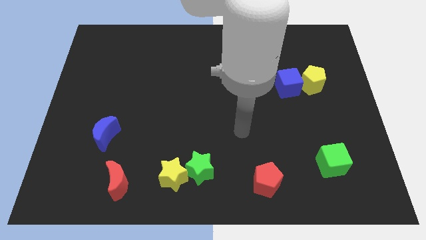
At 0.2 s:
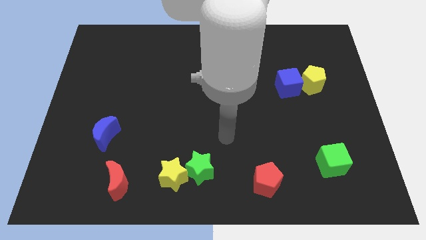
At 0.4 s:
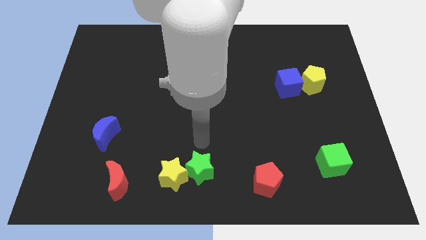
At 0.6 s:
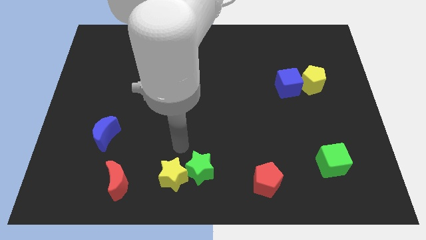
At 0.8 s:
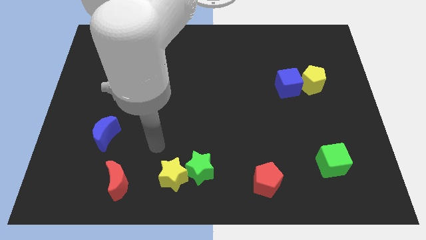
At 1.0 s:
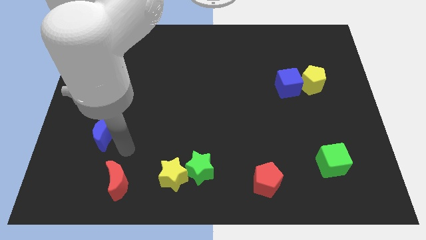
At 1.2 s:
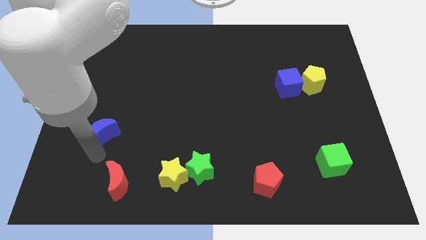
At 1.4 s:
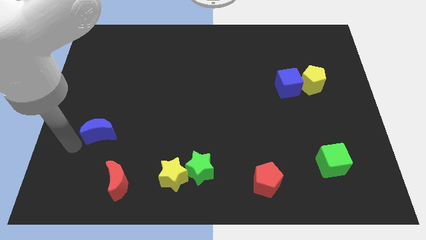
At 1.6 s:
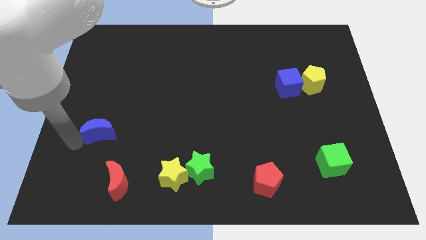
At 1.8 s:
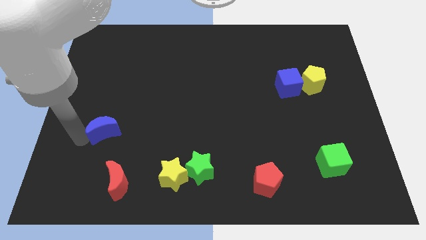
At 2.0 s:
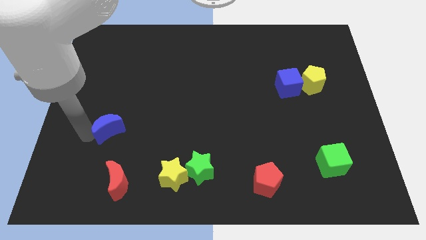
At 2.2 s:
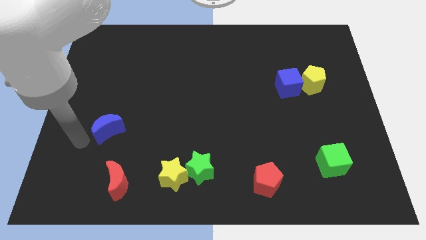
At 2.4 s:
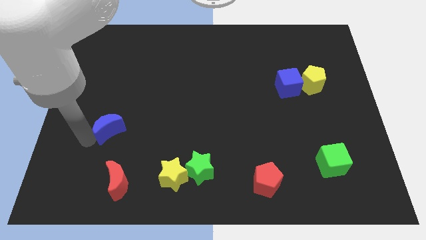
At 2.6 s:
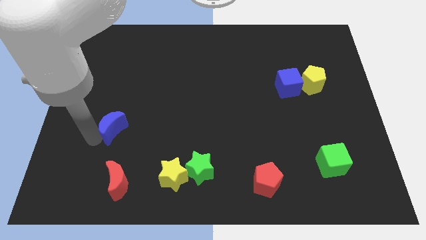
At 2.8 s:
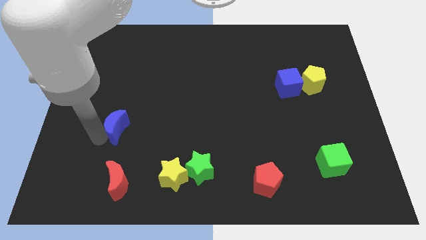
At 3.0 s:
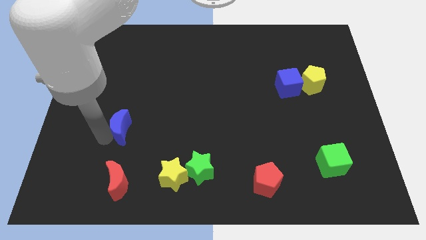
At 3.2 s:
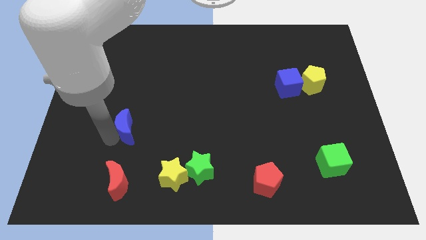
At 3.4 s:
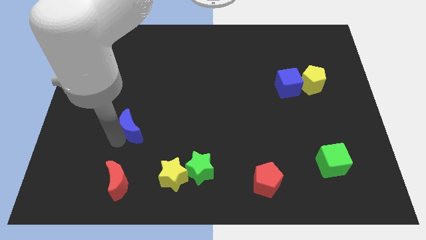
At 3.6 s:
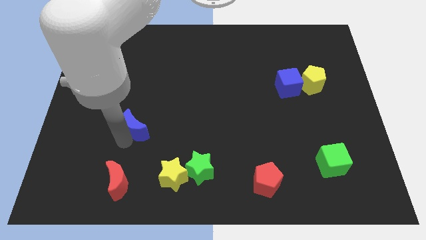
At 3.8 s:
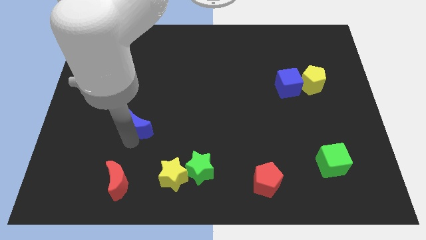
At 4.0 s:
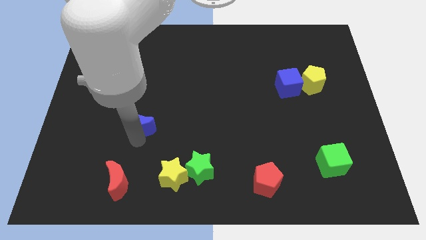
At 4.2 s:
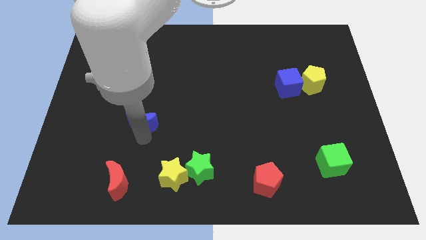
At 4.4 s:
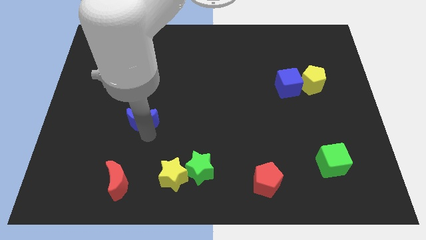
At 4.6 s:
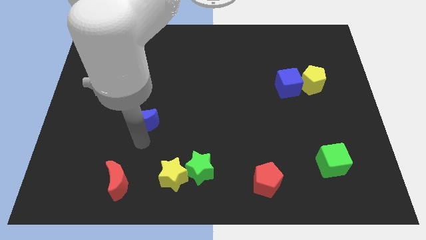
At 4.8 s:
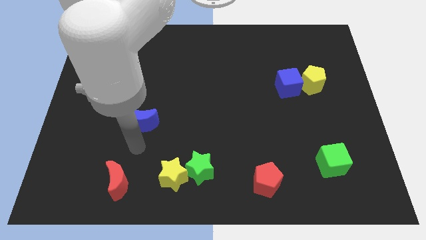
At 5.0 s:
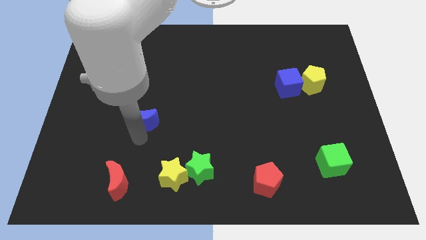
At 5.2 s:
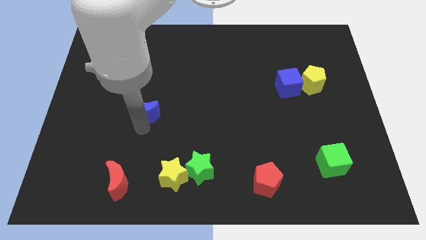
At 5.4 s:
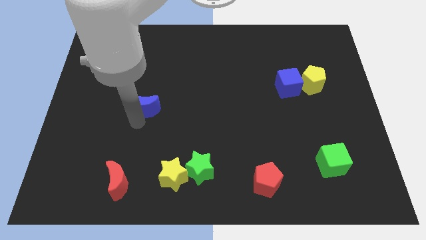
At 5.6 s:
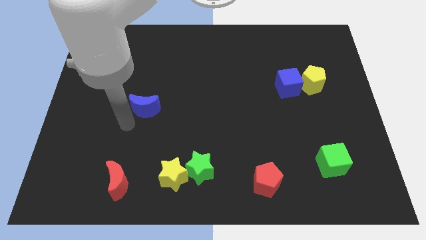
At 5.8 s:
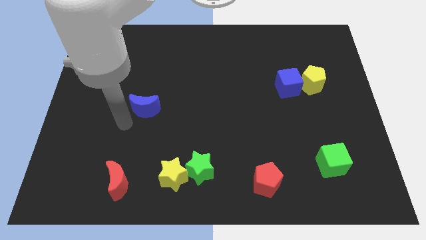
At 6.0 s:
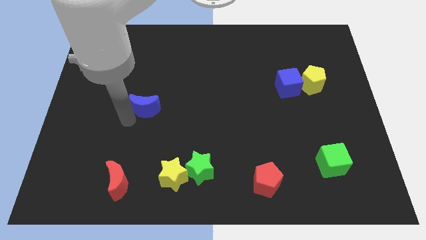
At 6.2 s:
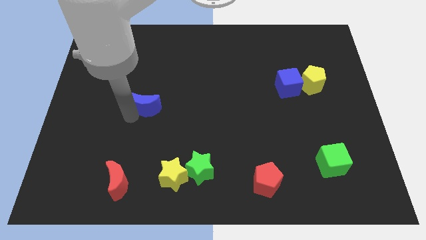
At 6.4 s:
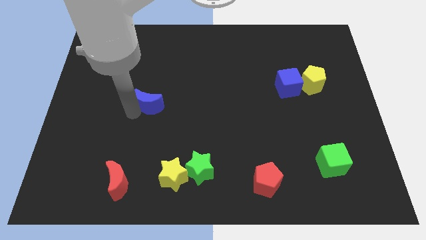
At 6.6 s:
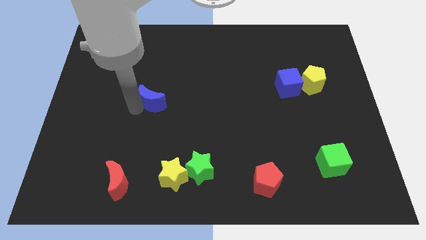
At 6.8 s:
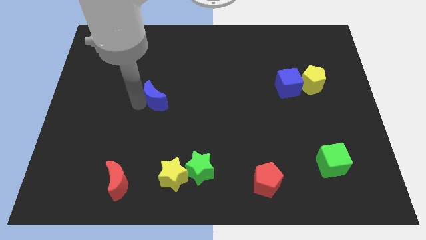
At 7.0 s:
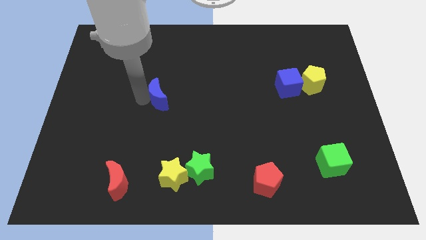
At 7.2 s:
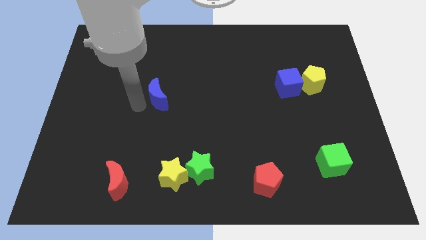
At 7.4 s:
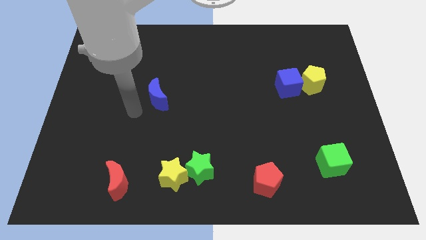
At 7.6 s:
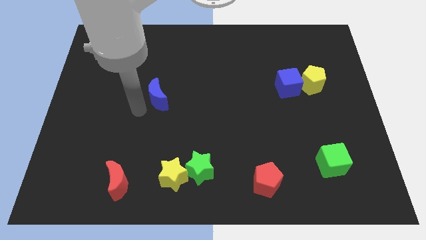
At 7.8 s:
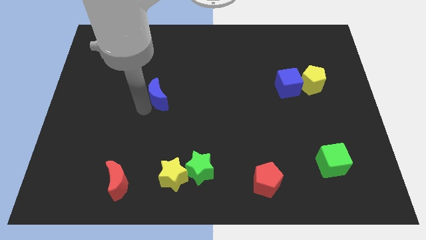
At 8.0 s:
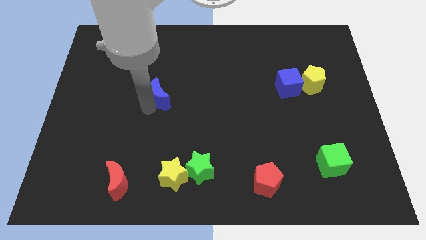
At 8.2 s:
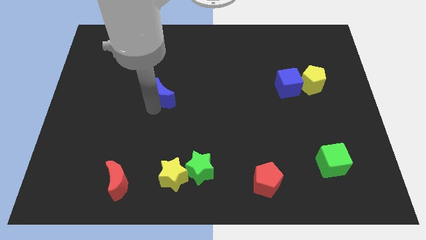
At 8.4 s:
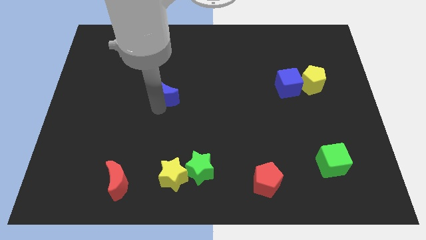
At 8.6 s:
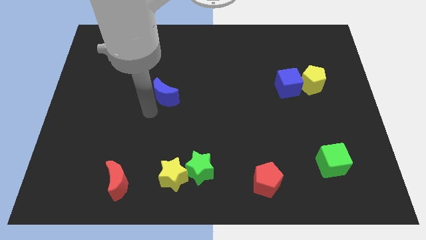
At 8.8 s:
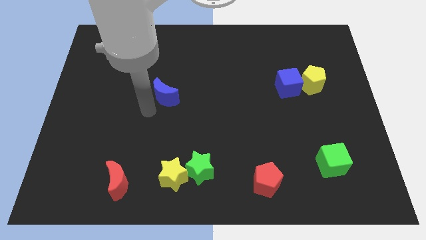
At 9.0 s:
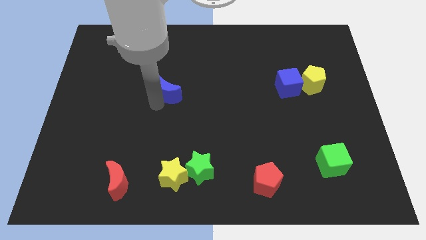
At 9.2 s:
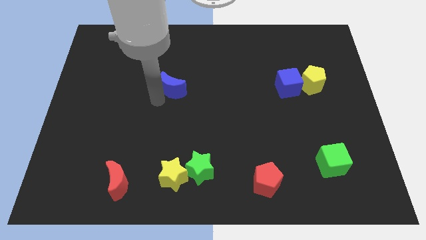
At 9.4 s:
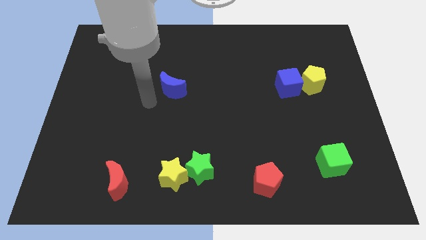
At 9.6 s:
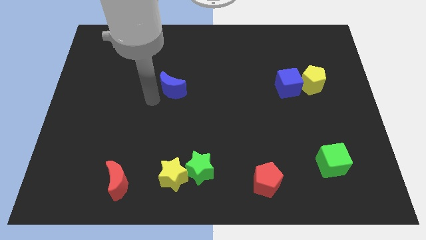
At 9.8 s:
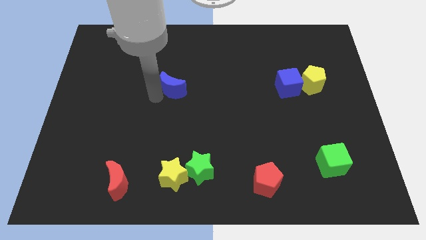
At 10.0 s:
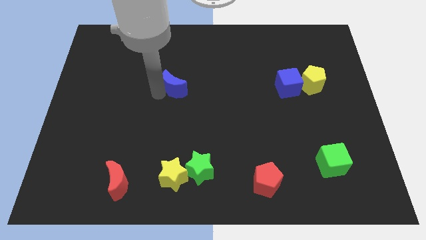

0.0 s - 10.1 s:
push the blue moon diagonally upwards and to the right

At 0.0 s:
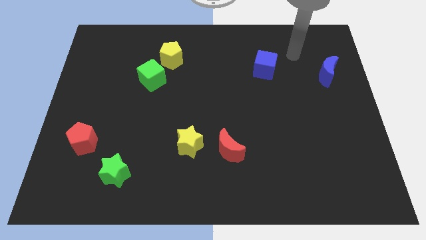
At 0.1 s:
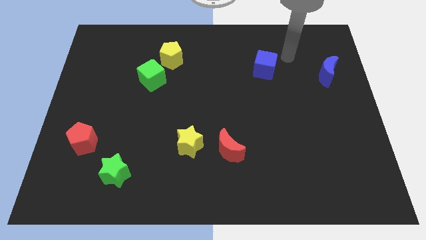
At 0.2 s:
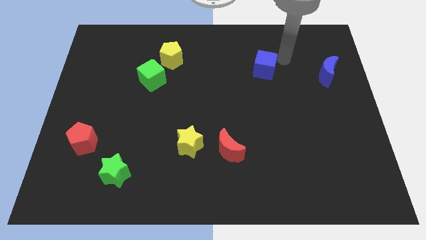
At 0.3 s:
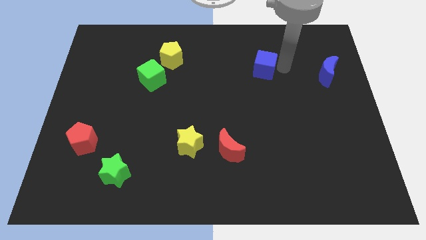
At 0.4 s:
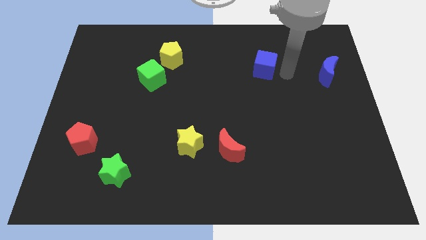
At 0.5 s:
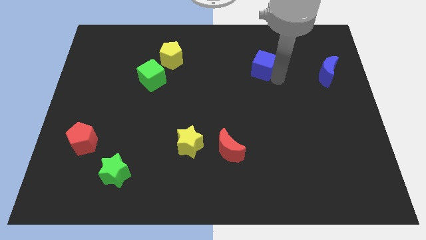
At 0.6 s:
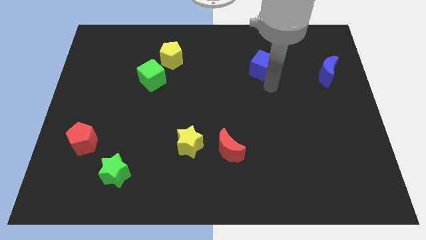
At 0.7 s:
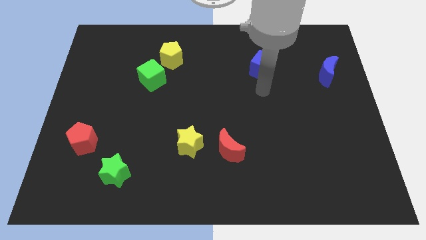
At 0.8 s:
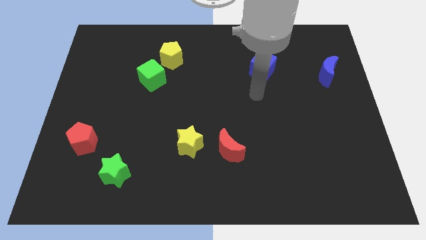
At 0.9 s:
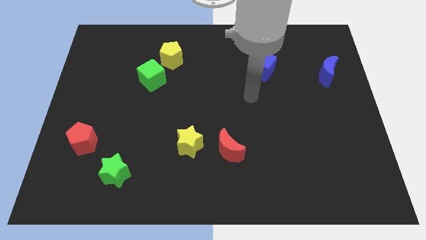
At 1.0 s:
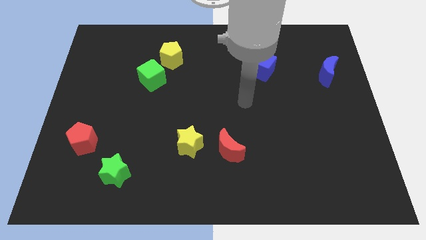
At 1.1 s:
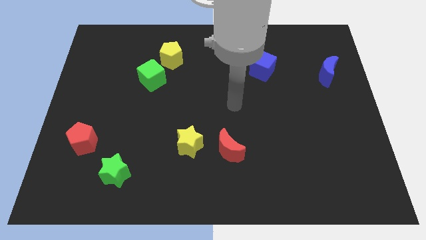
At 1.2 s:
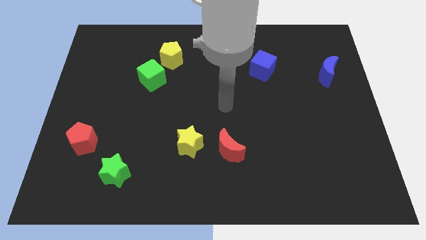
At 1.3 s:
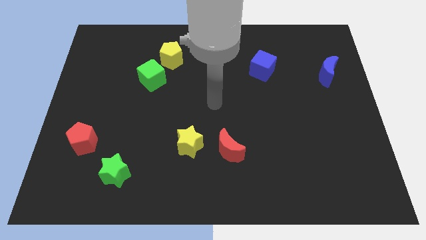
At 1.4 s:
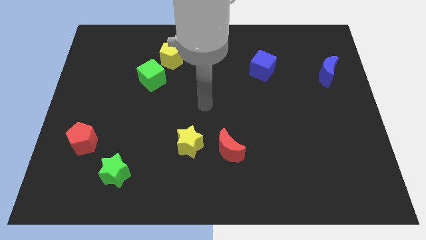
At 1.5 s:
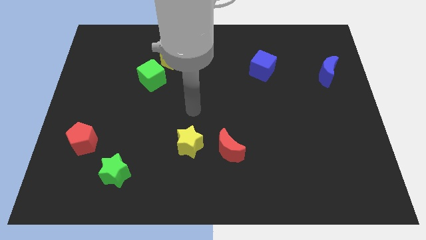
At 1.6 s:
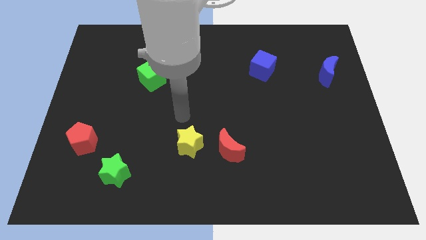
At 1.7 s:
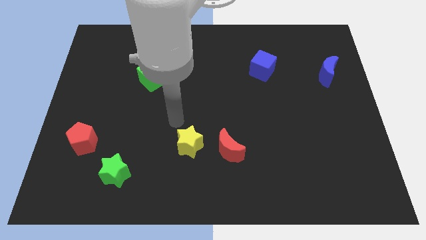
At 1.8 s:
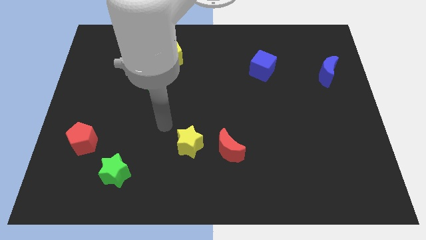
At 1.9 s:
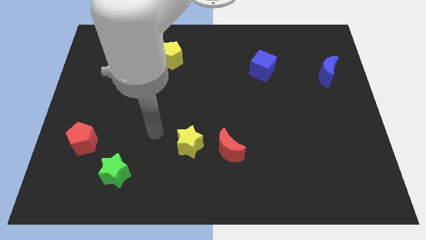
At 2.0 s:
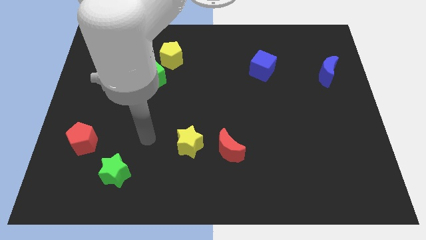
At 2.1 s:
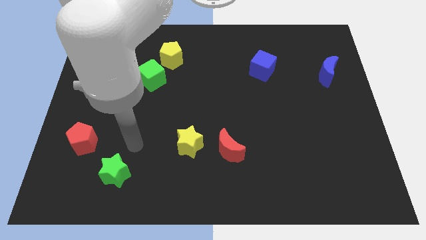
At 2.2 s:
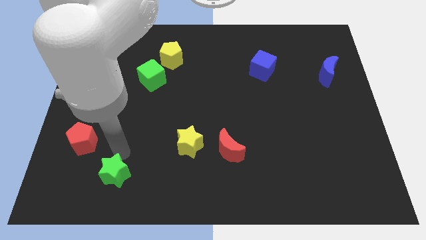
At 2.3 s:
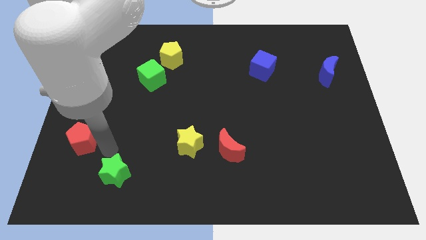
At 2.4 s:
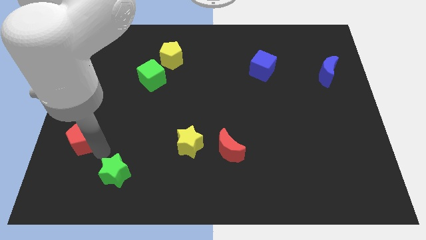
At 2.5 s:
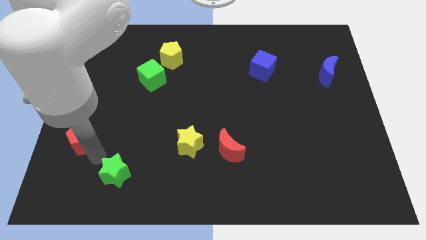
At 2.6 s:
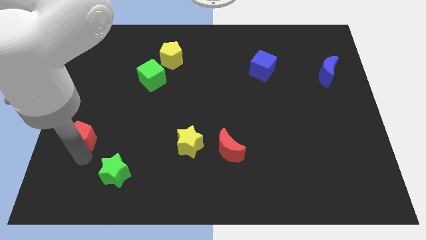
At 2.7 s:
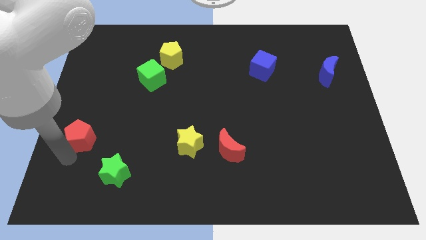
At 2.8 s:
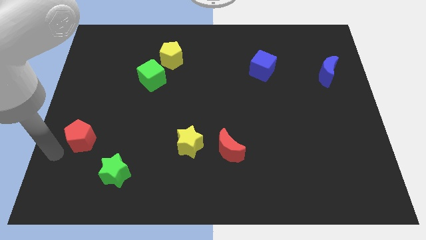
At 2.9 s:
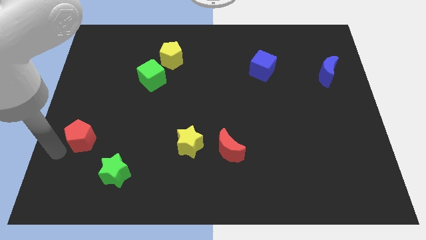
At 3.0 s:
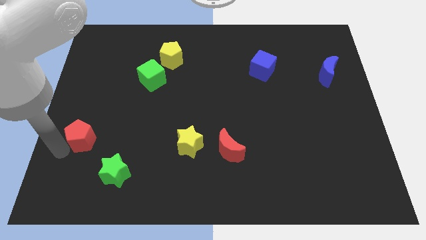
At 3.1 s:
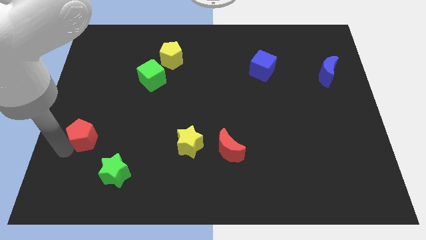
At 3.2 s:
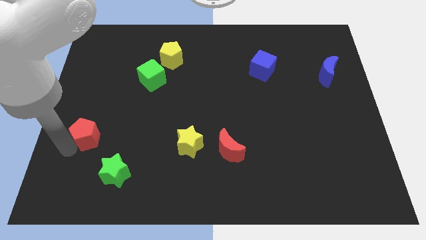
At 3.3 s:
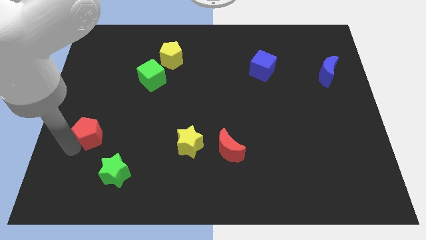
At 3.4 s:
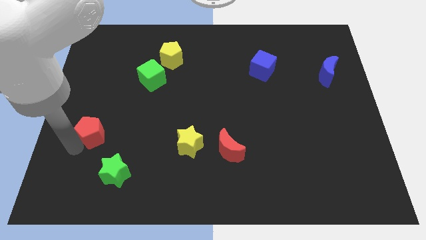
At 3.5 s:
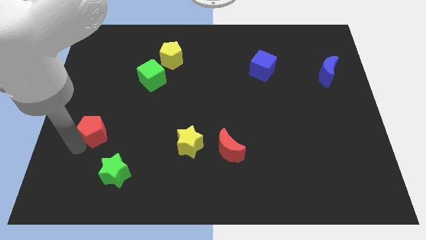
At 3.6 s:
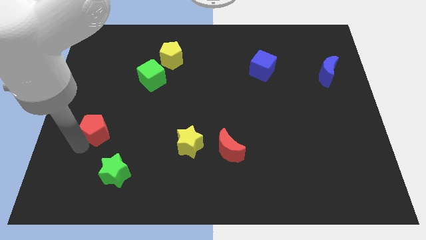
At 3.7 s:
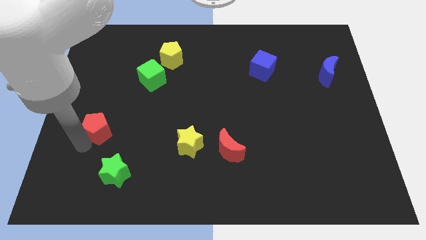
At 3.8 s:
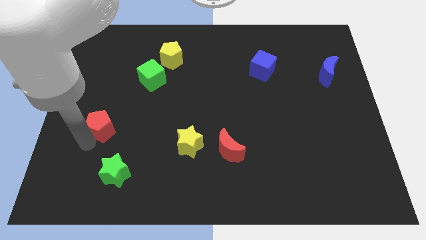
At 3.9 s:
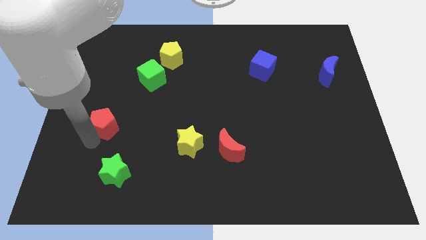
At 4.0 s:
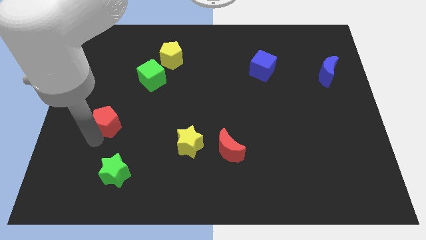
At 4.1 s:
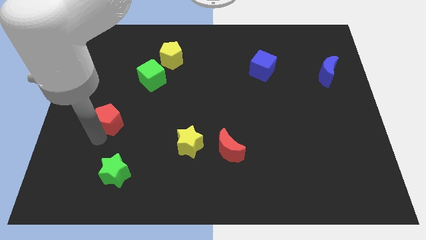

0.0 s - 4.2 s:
slide the red pentagon up and right a little bit
